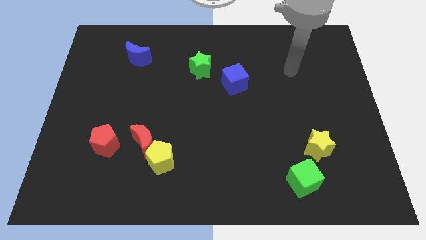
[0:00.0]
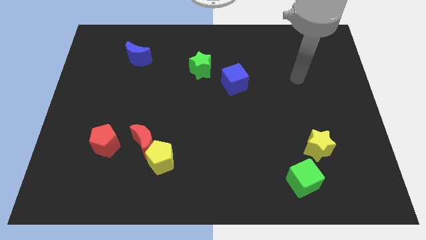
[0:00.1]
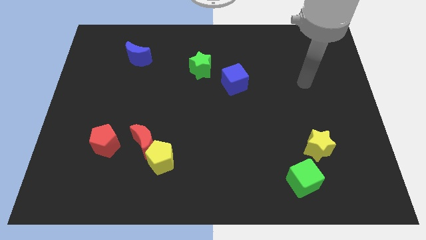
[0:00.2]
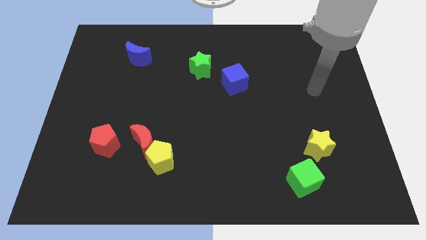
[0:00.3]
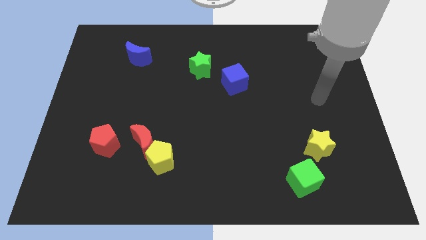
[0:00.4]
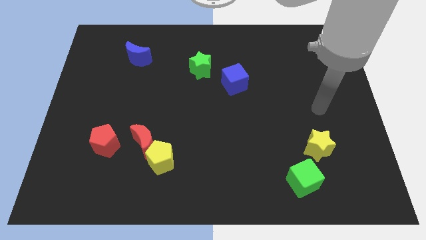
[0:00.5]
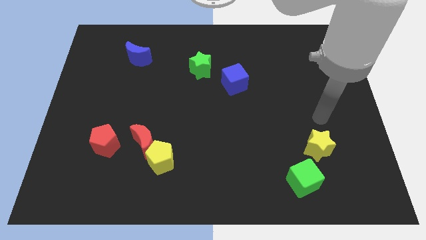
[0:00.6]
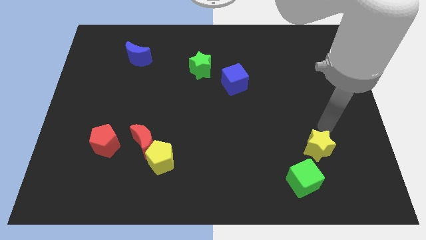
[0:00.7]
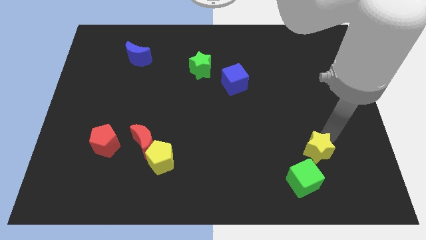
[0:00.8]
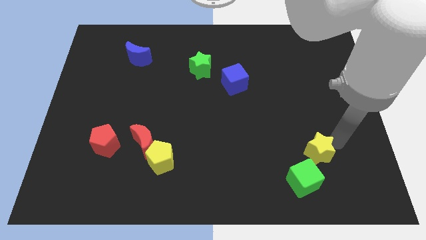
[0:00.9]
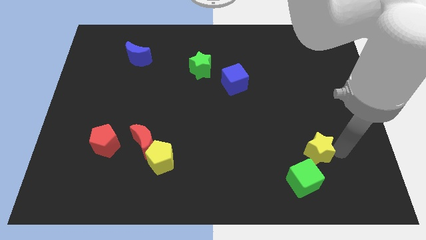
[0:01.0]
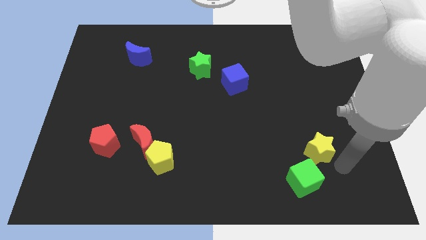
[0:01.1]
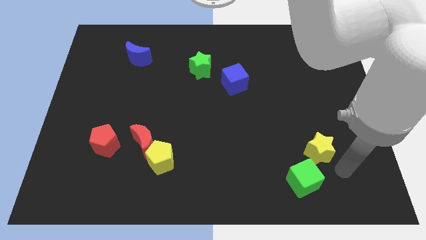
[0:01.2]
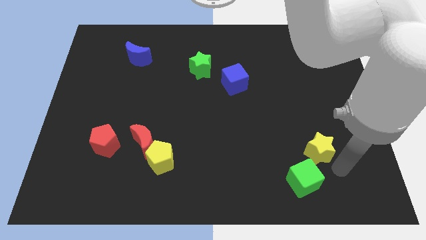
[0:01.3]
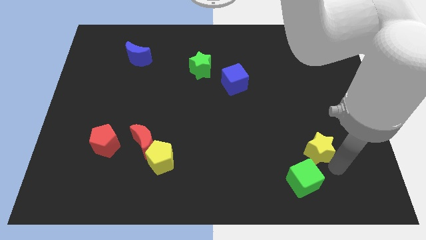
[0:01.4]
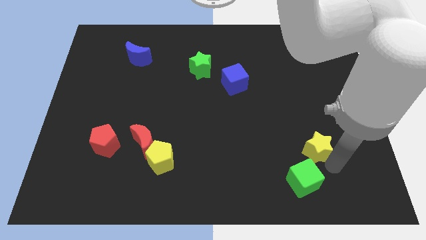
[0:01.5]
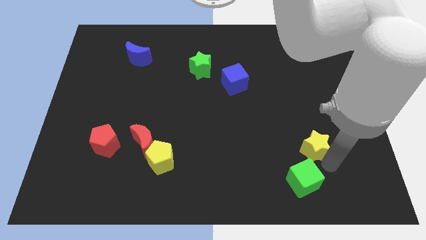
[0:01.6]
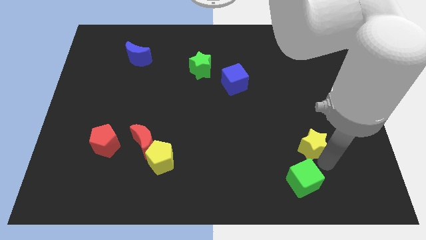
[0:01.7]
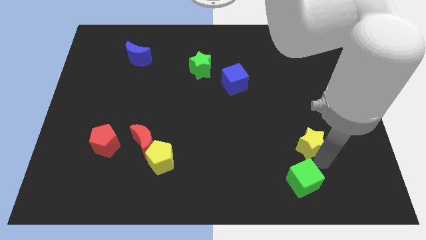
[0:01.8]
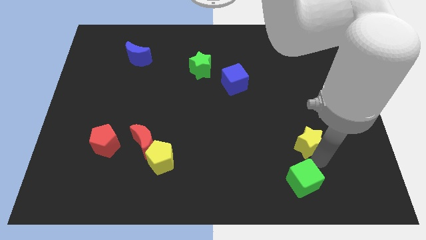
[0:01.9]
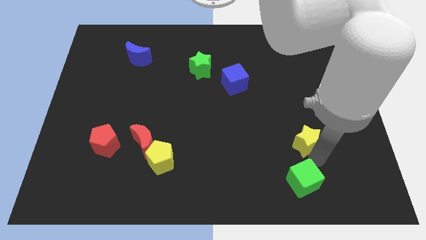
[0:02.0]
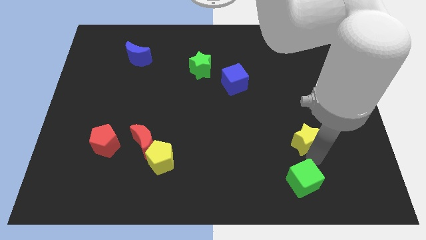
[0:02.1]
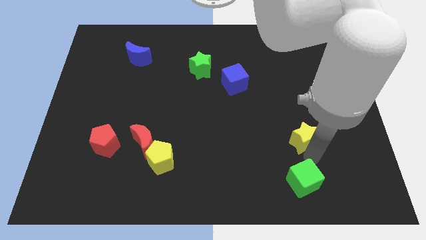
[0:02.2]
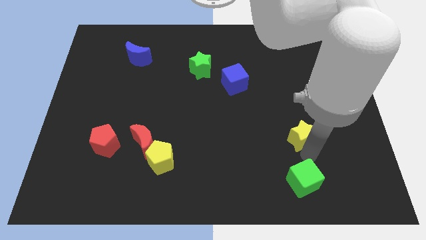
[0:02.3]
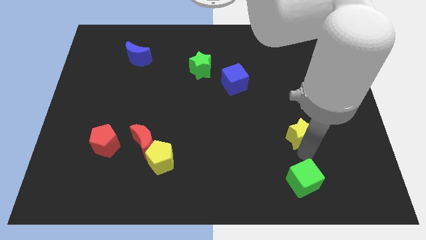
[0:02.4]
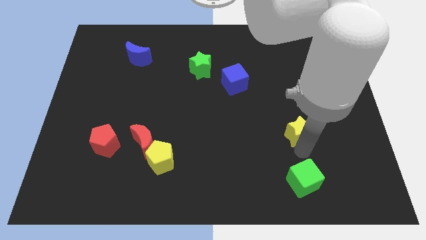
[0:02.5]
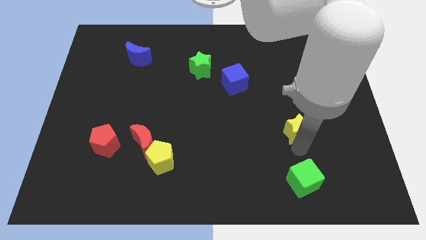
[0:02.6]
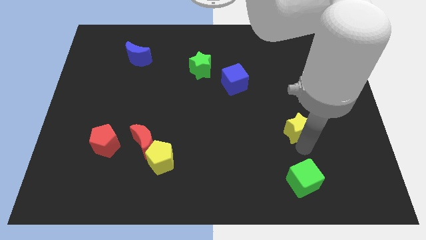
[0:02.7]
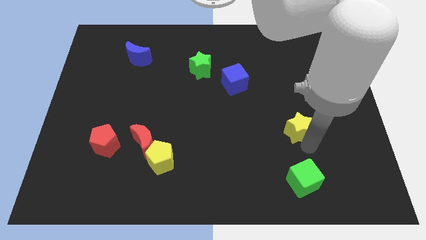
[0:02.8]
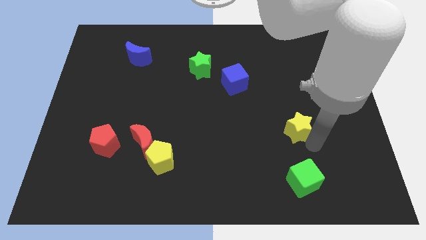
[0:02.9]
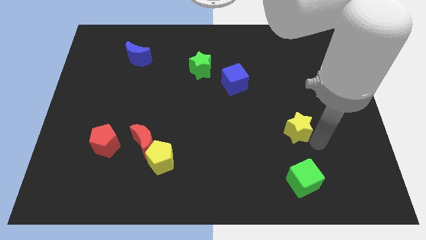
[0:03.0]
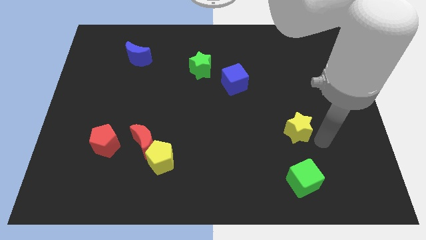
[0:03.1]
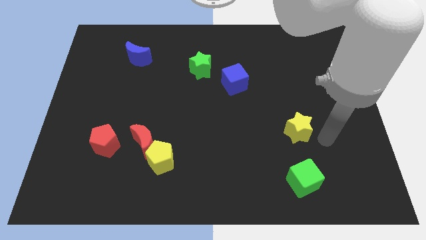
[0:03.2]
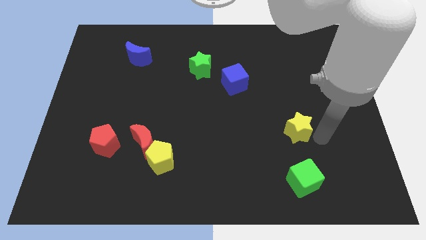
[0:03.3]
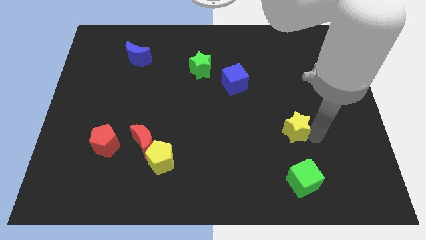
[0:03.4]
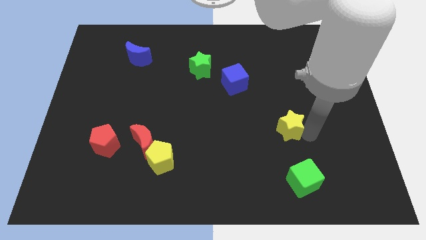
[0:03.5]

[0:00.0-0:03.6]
move the yellow star diagonally up and left a little

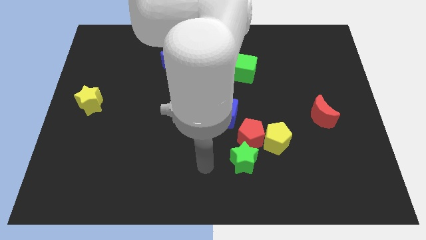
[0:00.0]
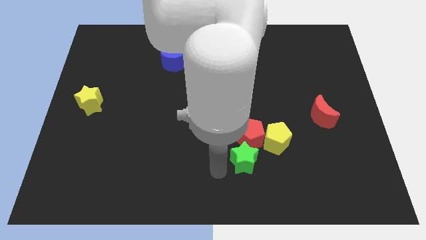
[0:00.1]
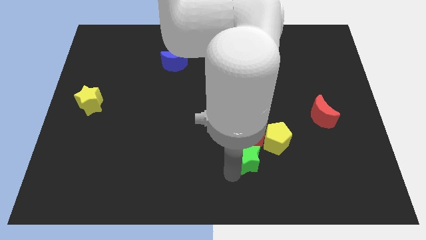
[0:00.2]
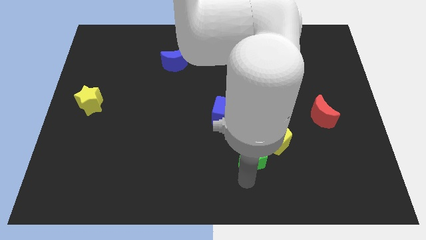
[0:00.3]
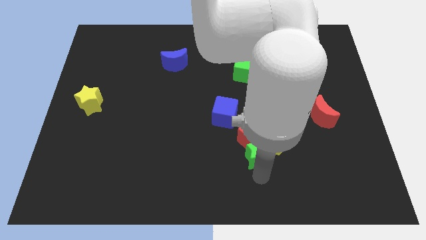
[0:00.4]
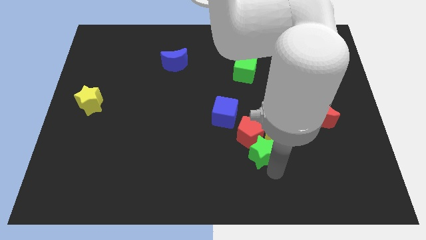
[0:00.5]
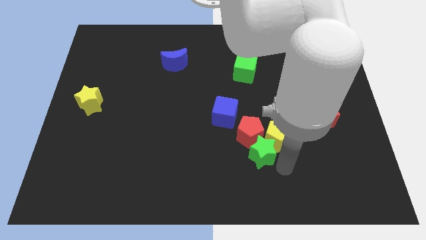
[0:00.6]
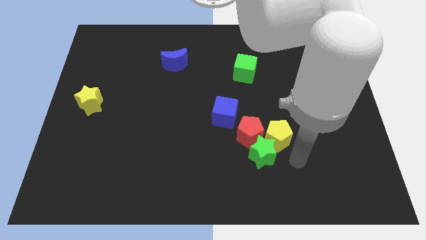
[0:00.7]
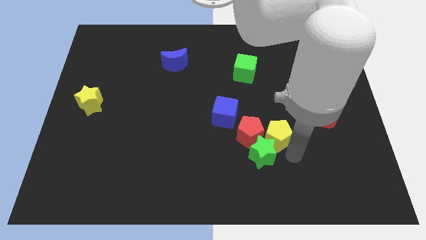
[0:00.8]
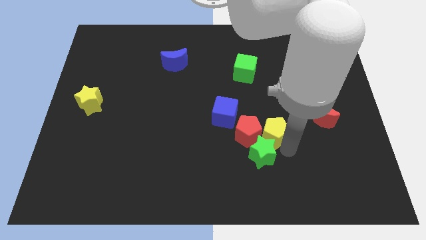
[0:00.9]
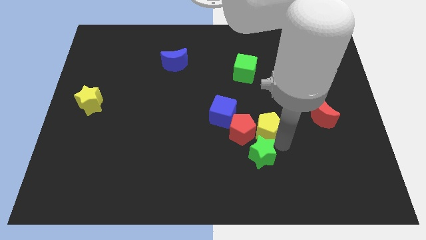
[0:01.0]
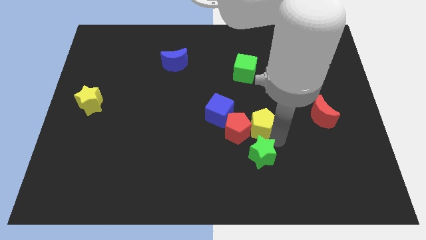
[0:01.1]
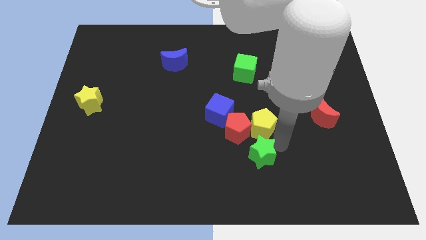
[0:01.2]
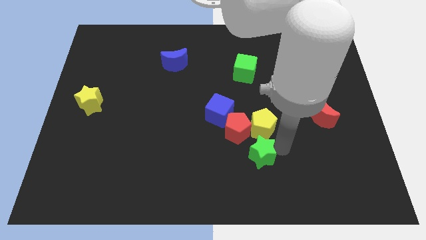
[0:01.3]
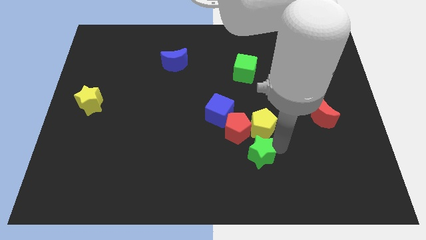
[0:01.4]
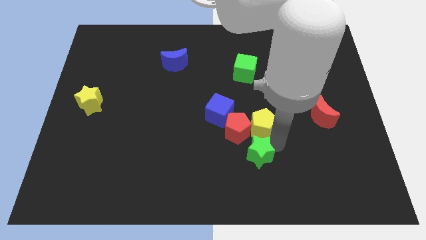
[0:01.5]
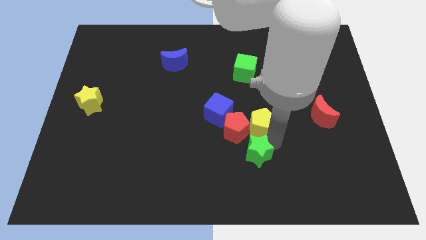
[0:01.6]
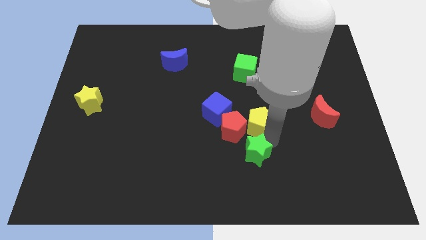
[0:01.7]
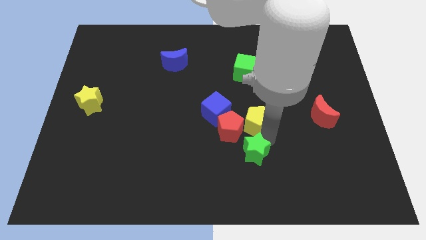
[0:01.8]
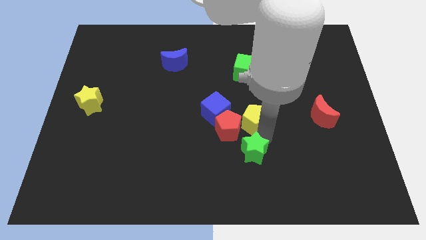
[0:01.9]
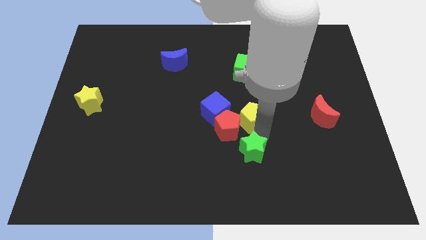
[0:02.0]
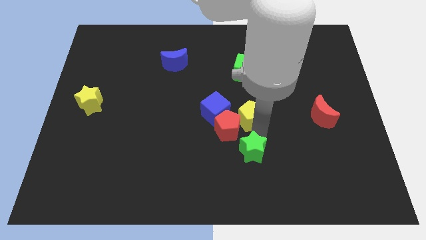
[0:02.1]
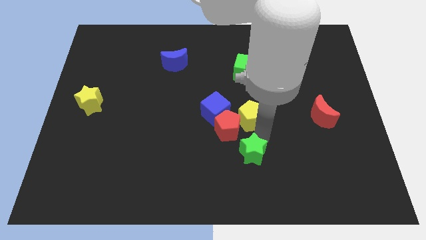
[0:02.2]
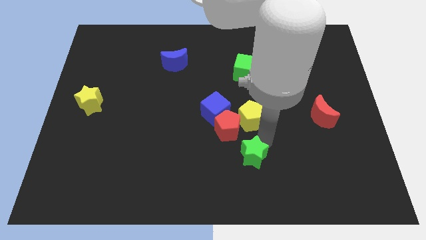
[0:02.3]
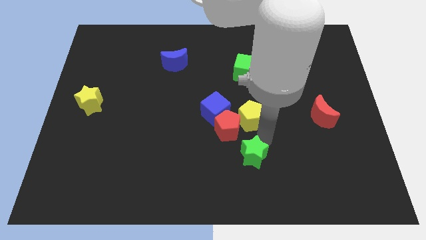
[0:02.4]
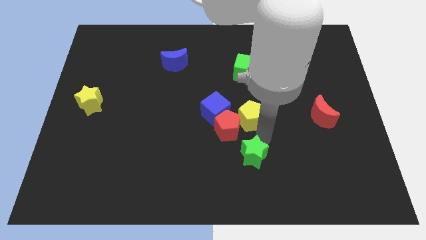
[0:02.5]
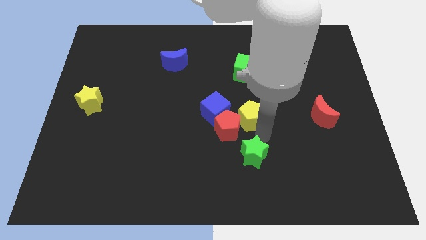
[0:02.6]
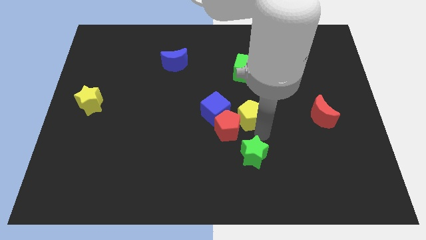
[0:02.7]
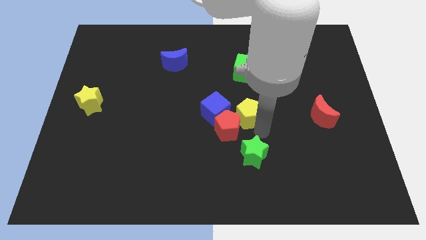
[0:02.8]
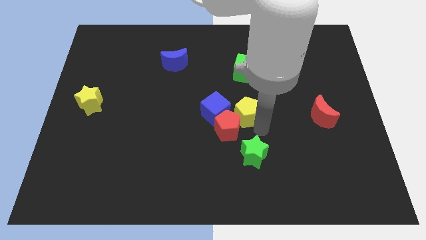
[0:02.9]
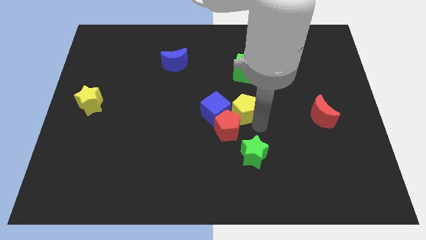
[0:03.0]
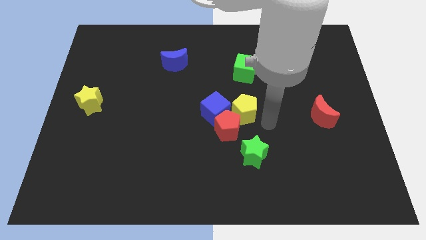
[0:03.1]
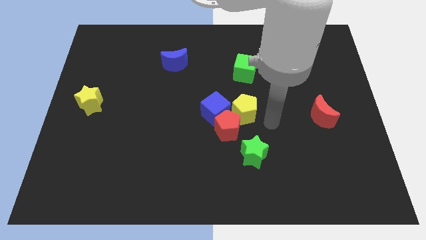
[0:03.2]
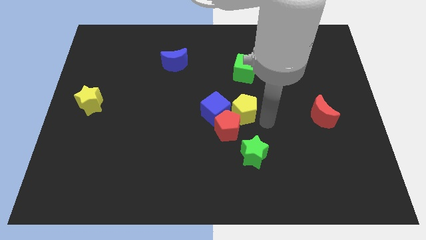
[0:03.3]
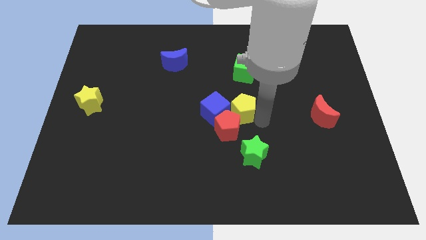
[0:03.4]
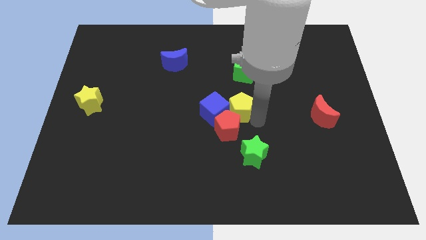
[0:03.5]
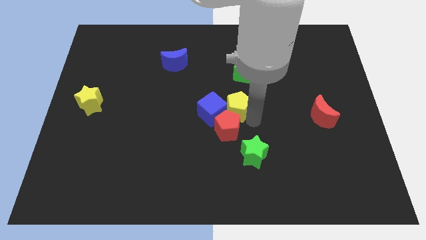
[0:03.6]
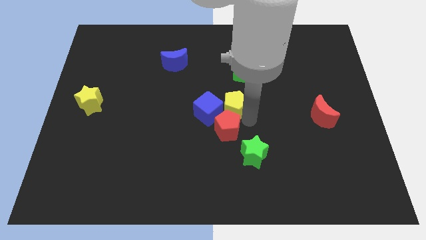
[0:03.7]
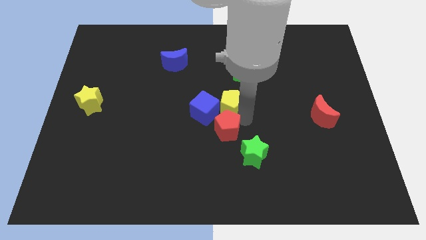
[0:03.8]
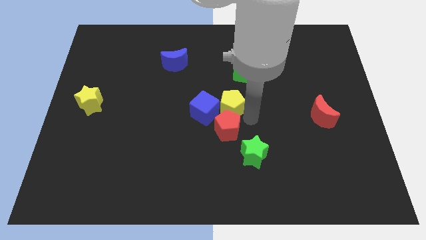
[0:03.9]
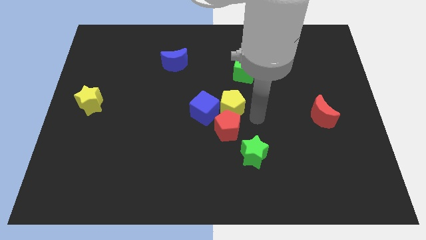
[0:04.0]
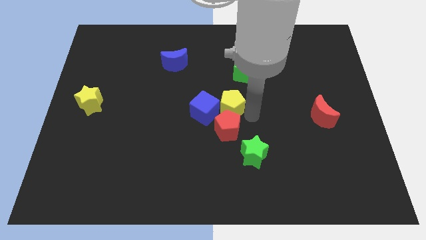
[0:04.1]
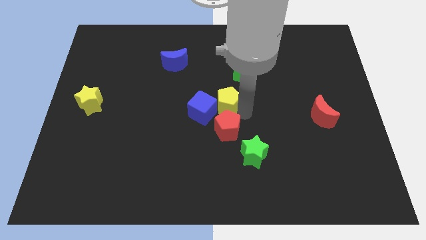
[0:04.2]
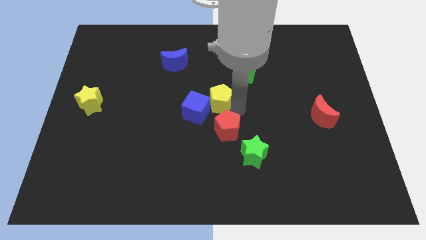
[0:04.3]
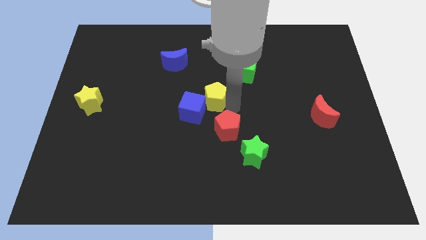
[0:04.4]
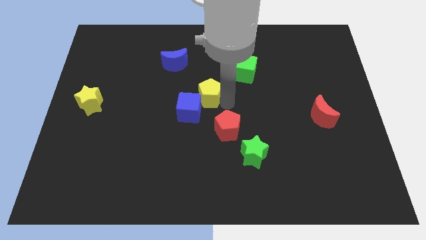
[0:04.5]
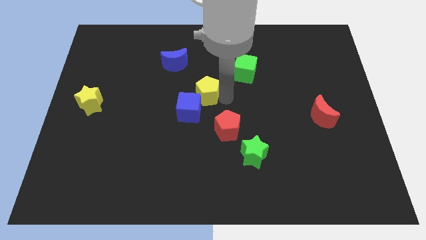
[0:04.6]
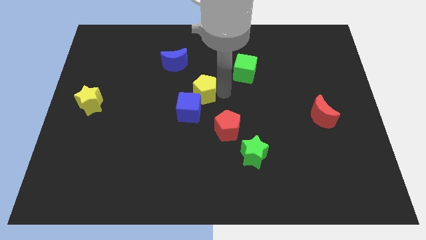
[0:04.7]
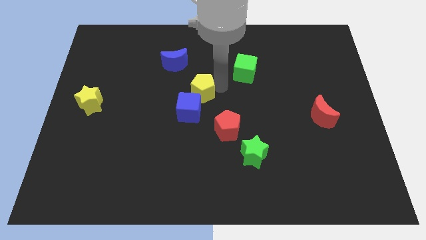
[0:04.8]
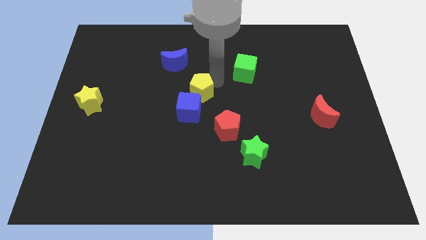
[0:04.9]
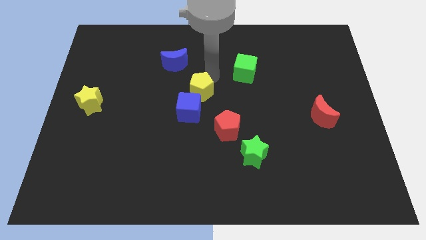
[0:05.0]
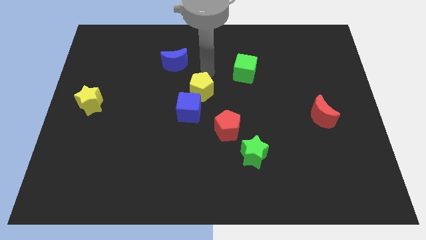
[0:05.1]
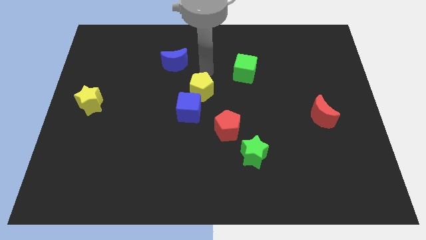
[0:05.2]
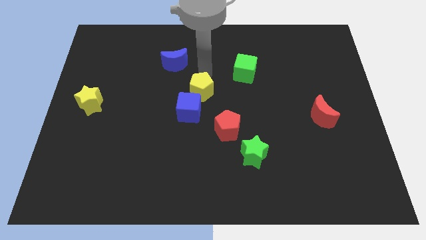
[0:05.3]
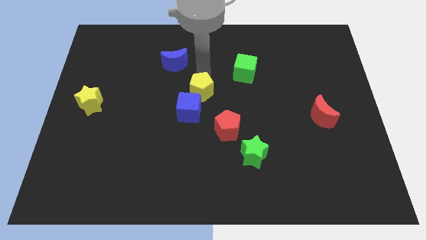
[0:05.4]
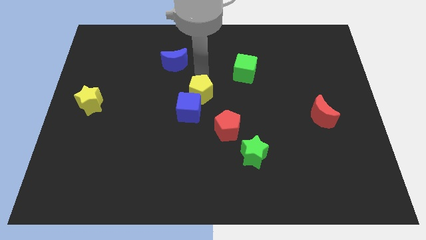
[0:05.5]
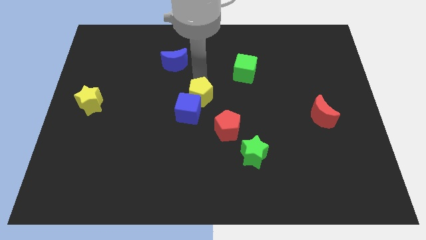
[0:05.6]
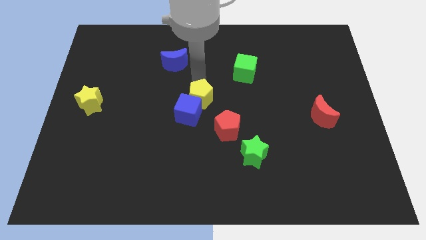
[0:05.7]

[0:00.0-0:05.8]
move the yellow pentagon a bit left
